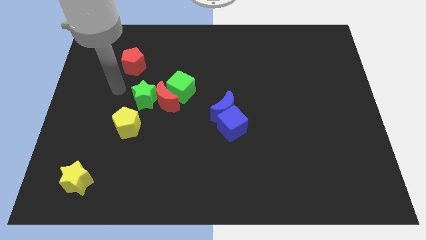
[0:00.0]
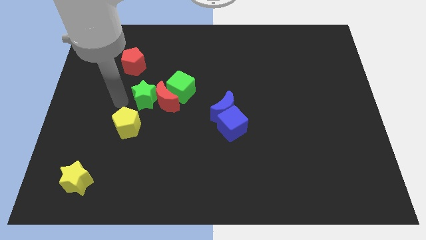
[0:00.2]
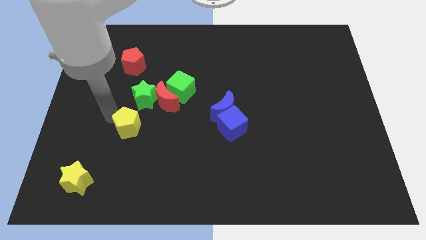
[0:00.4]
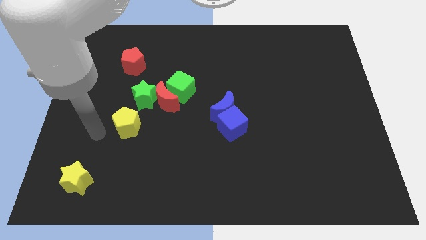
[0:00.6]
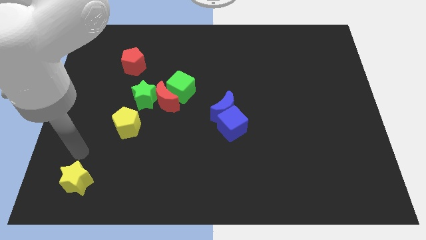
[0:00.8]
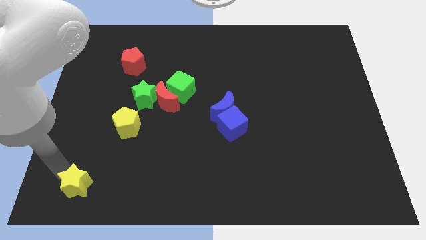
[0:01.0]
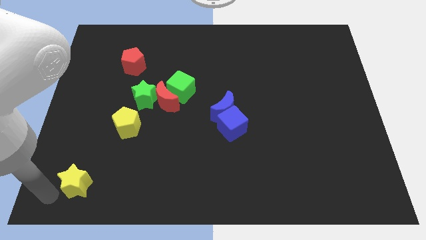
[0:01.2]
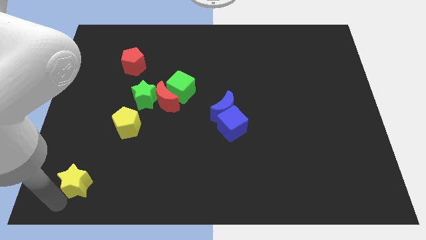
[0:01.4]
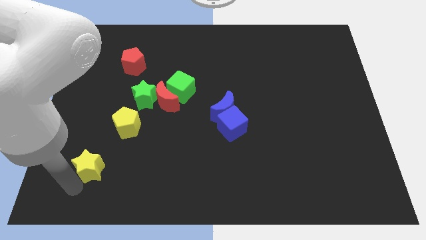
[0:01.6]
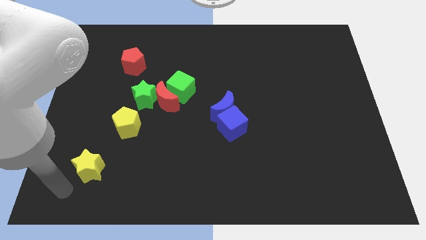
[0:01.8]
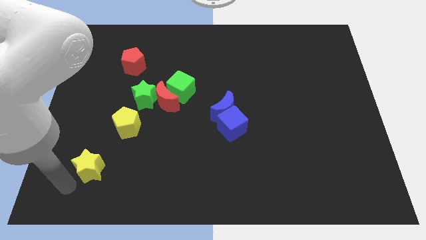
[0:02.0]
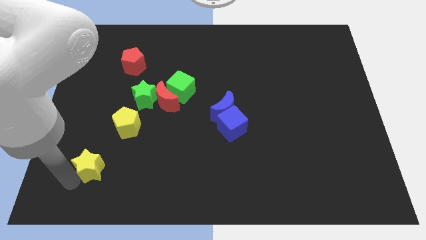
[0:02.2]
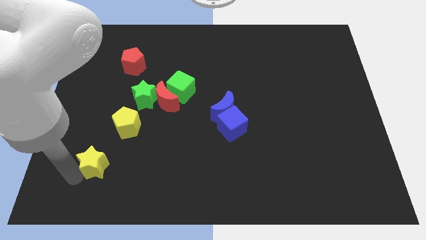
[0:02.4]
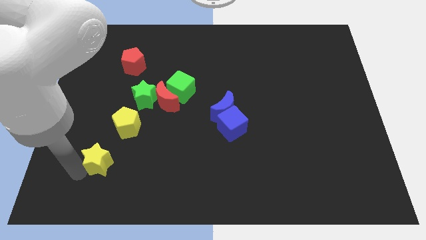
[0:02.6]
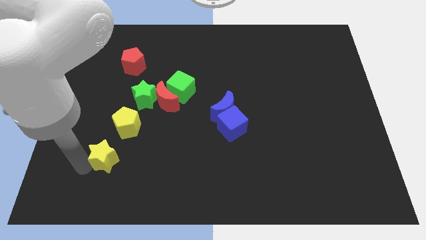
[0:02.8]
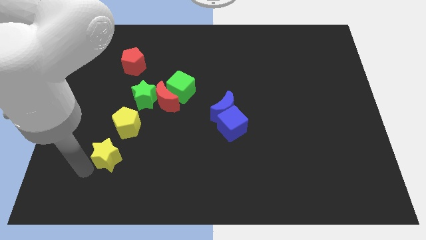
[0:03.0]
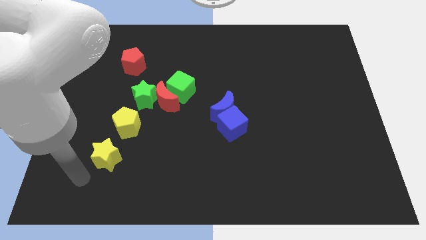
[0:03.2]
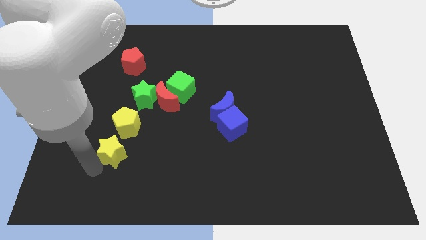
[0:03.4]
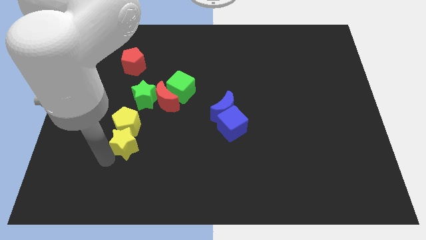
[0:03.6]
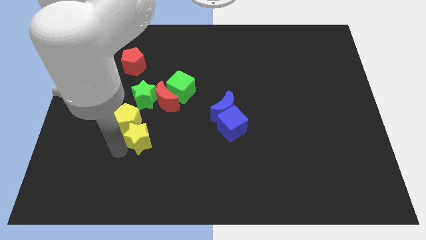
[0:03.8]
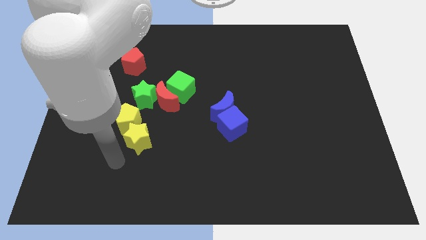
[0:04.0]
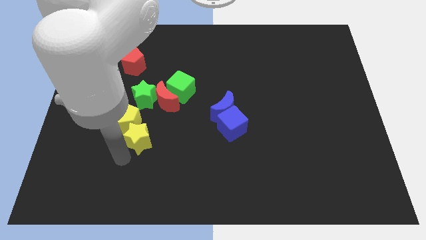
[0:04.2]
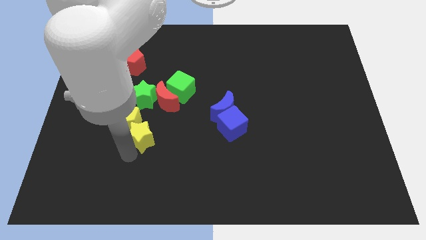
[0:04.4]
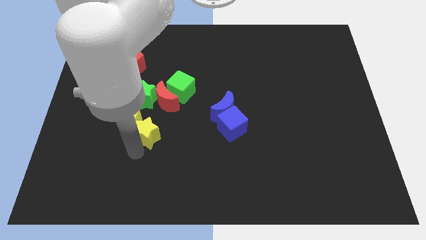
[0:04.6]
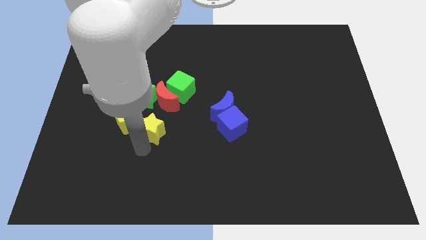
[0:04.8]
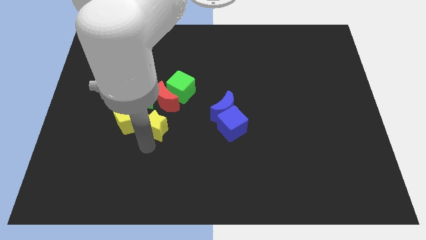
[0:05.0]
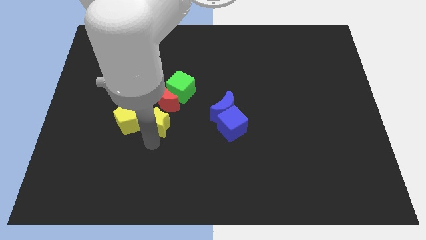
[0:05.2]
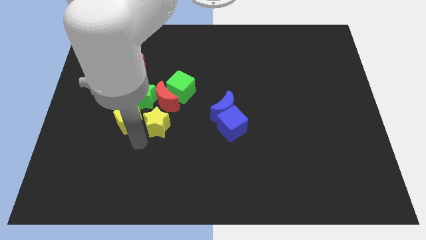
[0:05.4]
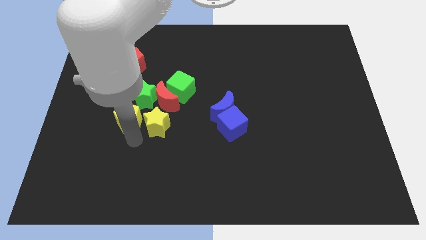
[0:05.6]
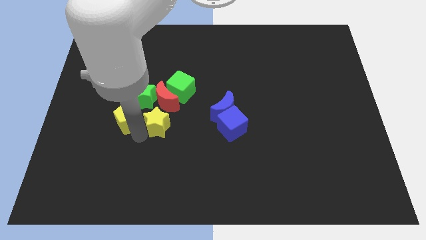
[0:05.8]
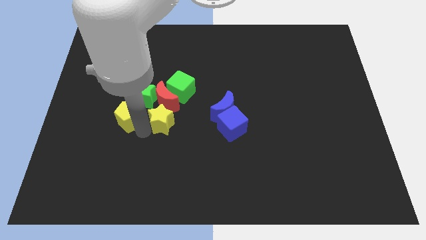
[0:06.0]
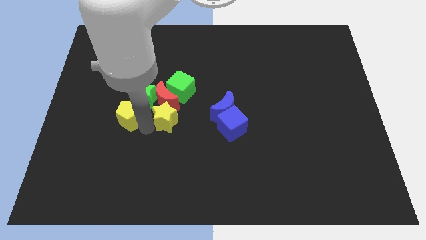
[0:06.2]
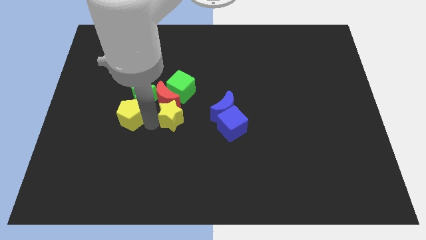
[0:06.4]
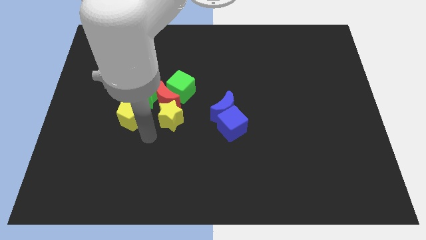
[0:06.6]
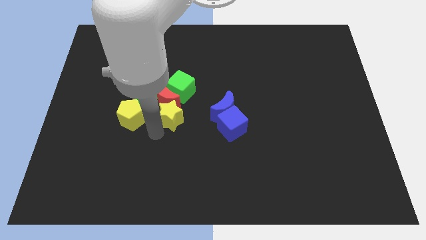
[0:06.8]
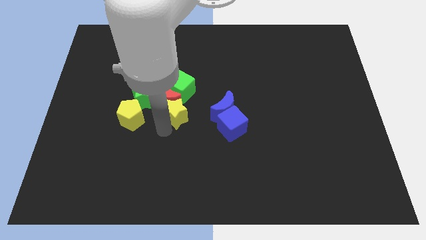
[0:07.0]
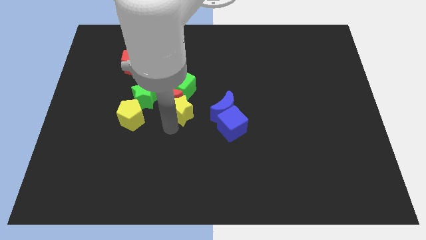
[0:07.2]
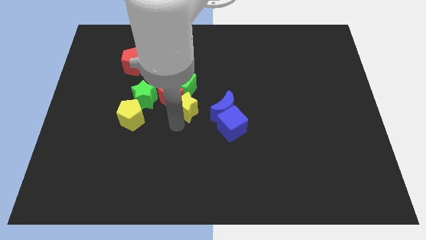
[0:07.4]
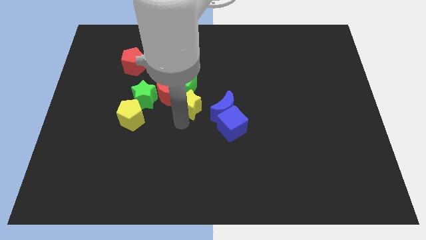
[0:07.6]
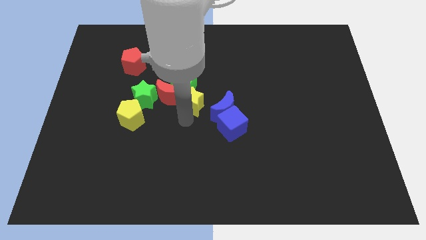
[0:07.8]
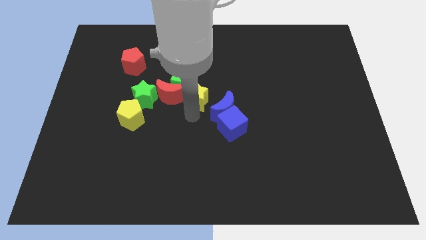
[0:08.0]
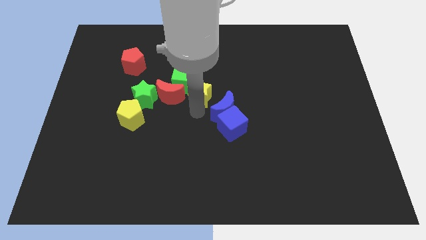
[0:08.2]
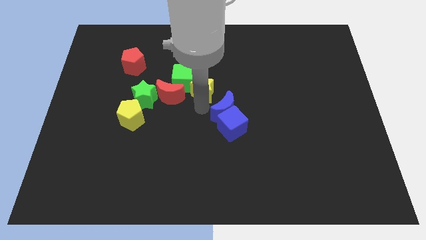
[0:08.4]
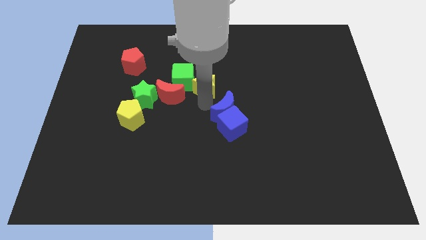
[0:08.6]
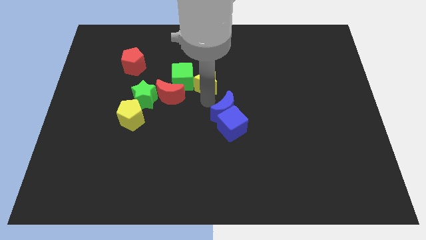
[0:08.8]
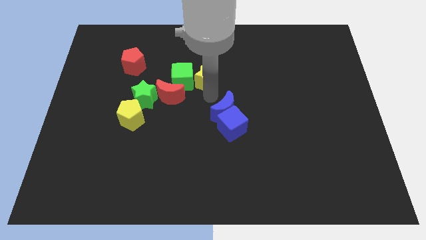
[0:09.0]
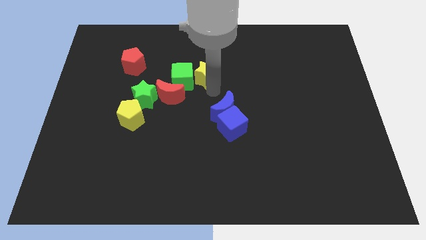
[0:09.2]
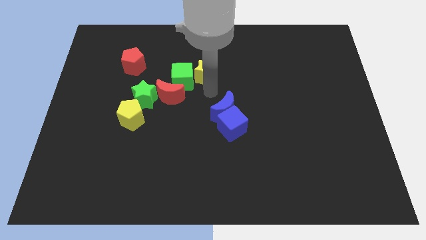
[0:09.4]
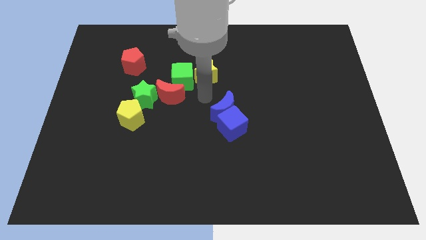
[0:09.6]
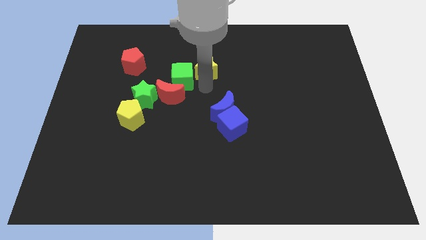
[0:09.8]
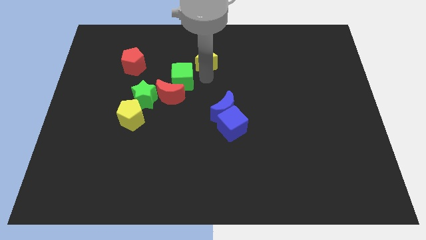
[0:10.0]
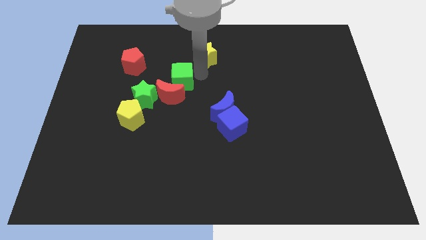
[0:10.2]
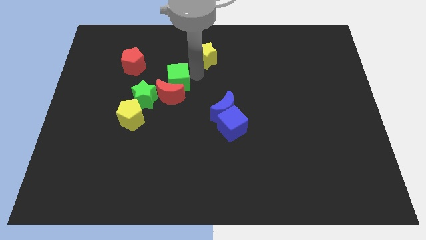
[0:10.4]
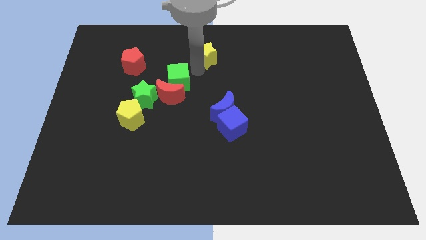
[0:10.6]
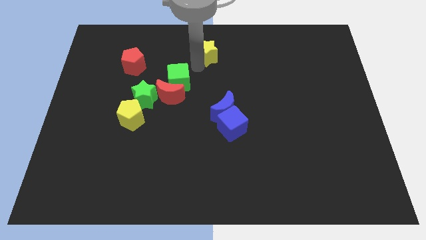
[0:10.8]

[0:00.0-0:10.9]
slide the yellow star to the top

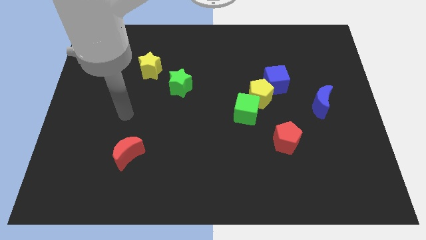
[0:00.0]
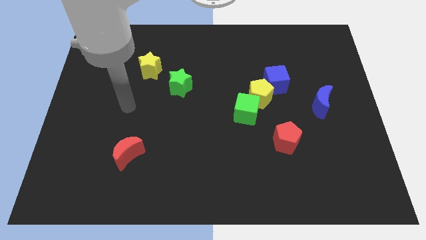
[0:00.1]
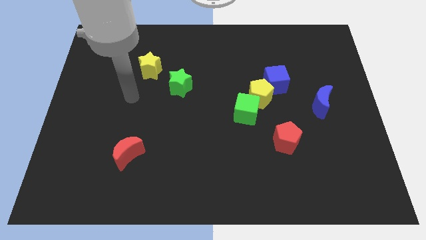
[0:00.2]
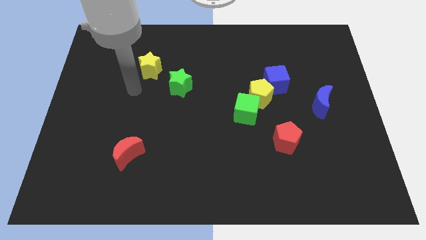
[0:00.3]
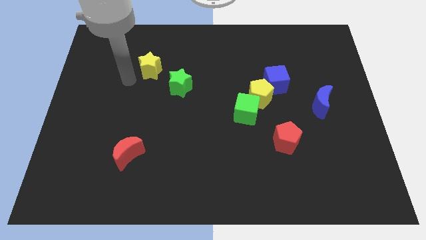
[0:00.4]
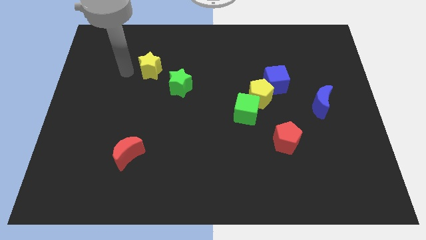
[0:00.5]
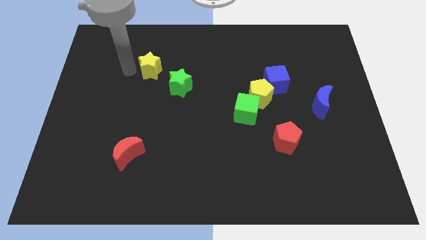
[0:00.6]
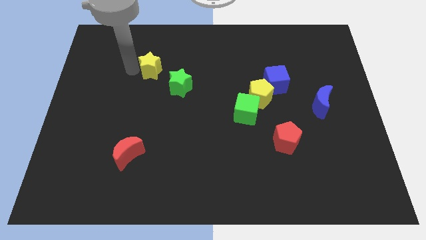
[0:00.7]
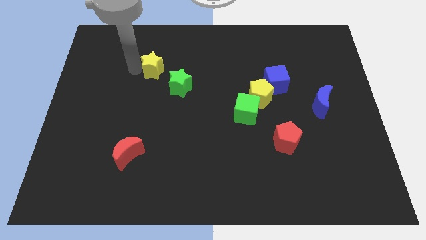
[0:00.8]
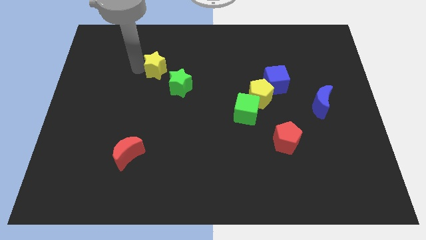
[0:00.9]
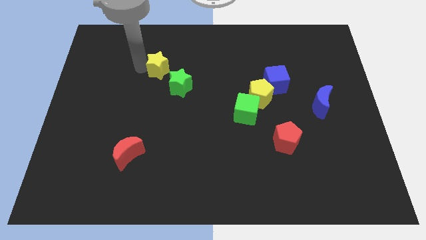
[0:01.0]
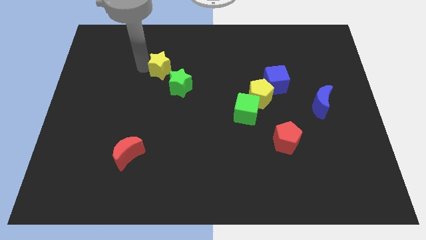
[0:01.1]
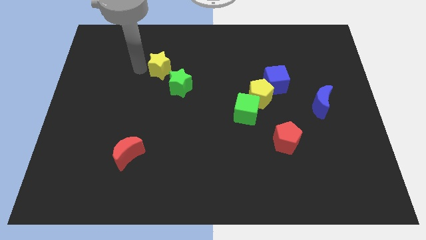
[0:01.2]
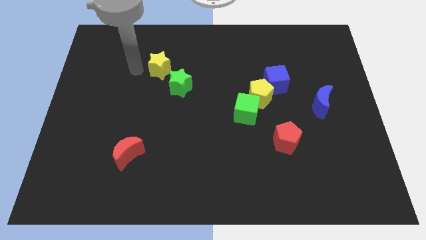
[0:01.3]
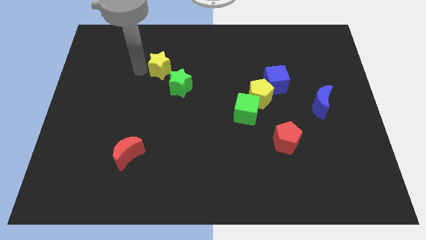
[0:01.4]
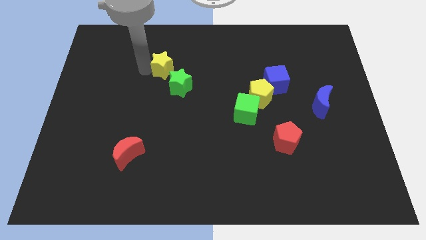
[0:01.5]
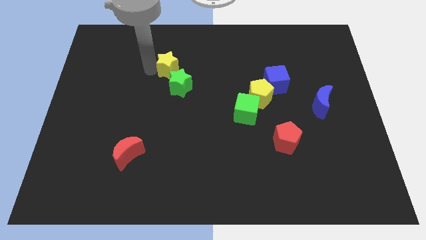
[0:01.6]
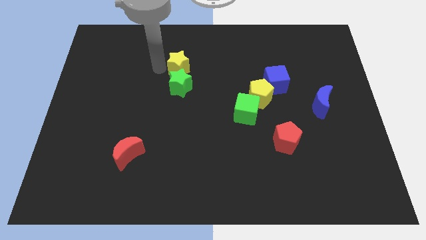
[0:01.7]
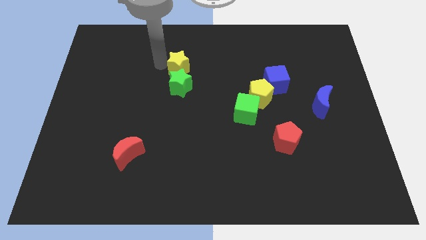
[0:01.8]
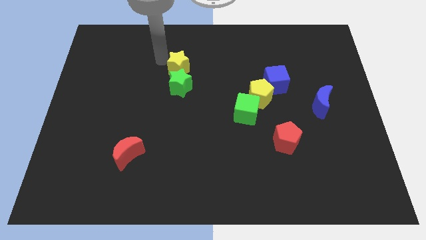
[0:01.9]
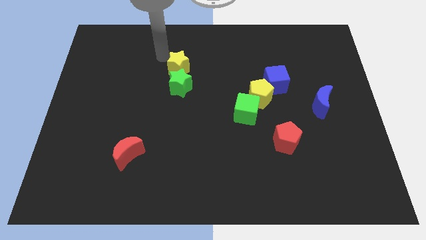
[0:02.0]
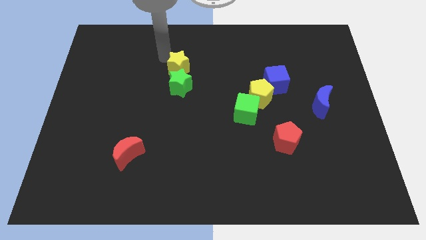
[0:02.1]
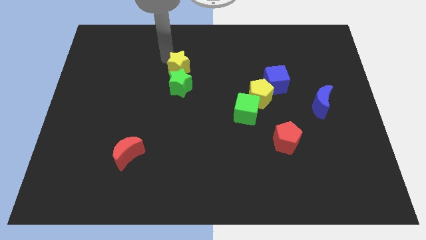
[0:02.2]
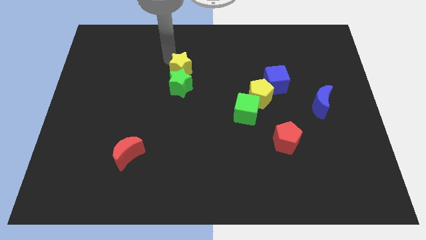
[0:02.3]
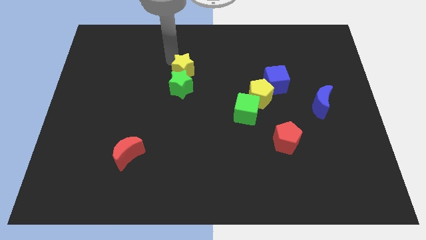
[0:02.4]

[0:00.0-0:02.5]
put the yellow star to the middle
